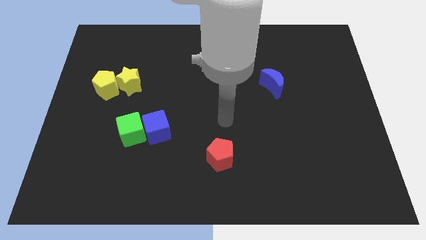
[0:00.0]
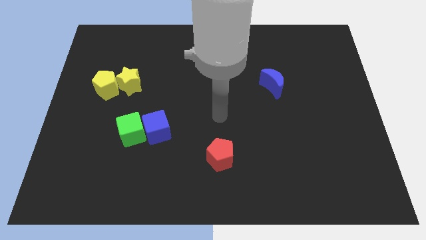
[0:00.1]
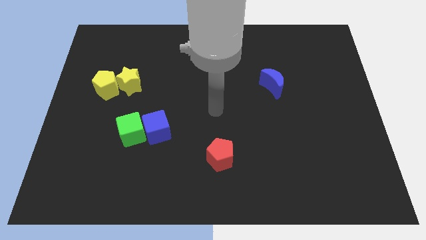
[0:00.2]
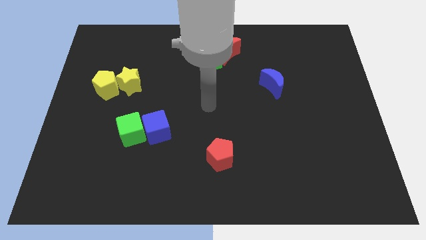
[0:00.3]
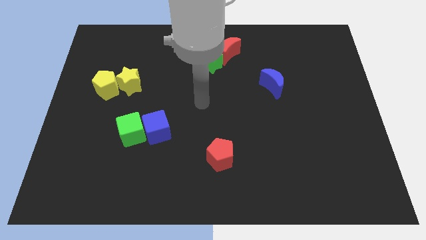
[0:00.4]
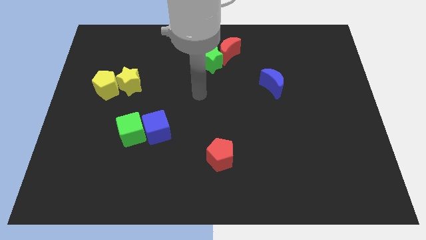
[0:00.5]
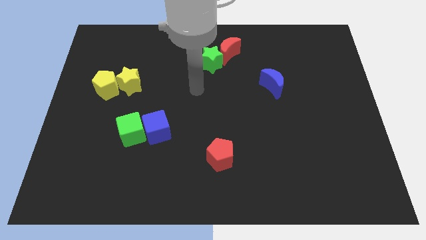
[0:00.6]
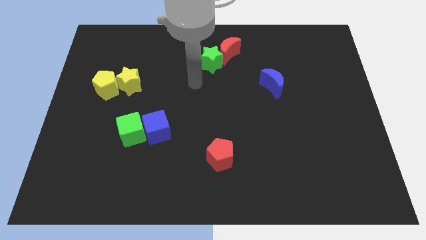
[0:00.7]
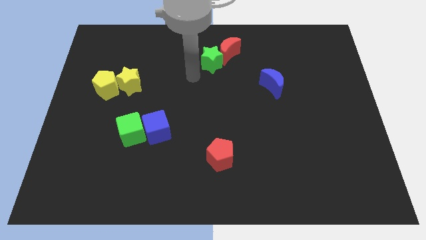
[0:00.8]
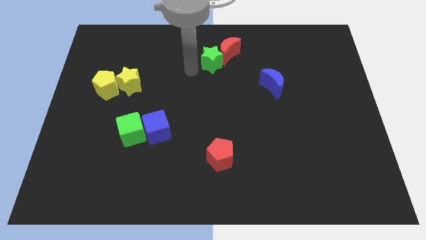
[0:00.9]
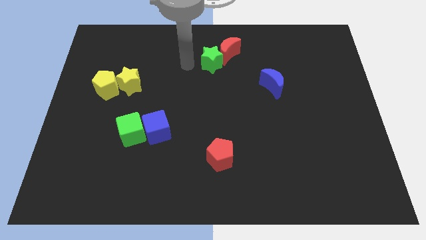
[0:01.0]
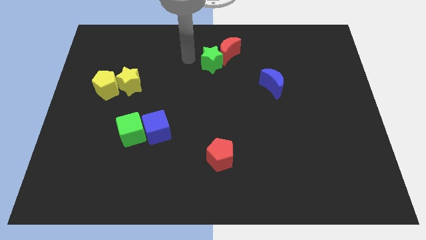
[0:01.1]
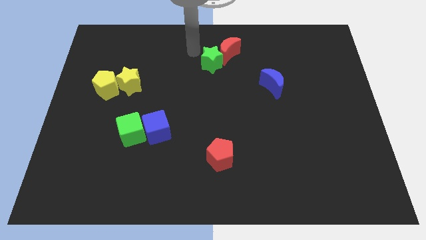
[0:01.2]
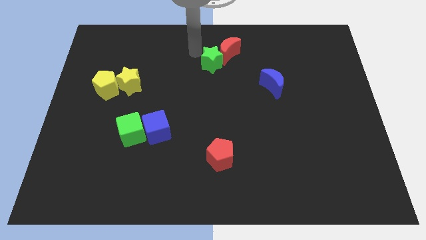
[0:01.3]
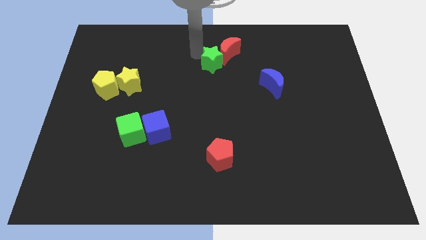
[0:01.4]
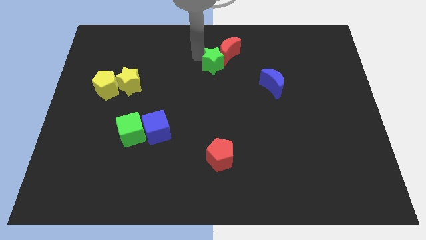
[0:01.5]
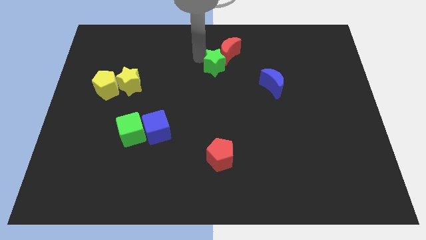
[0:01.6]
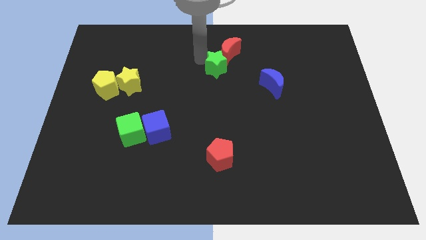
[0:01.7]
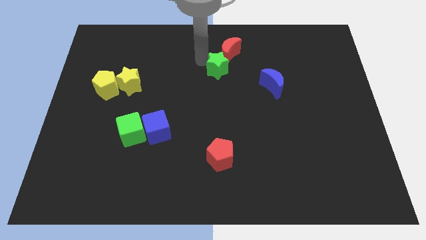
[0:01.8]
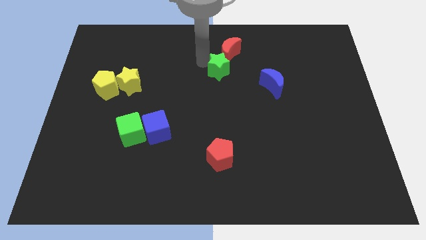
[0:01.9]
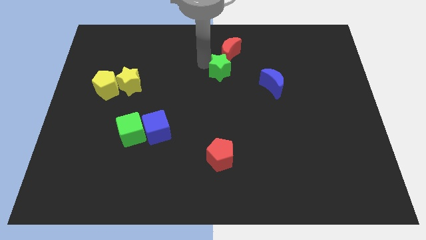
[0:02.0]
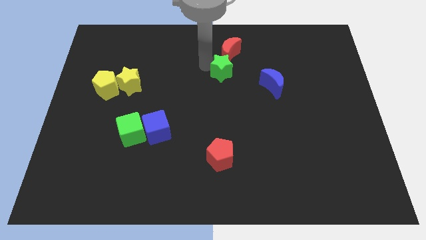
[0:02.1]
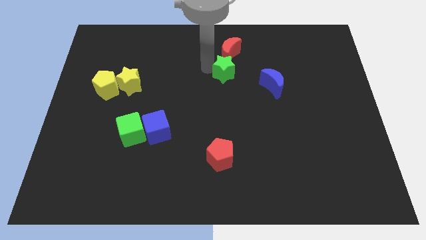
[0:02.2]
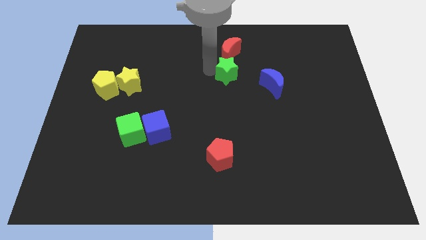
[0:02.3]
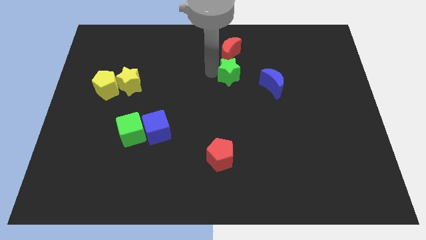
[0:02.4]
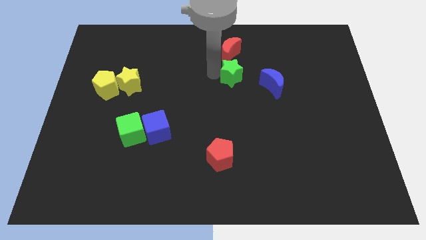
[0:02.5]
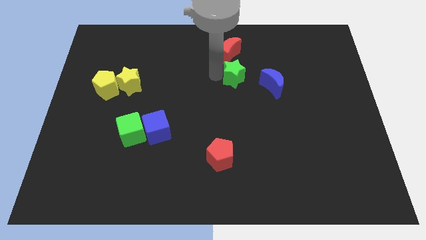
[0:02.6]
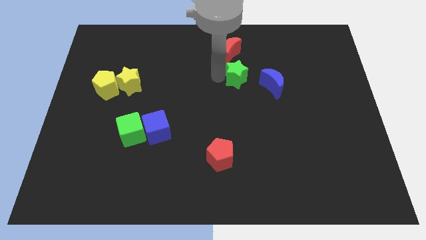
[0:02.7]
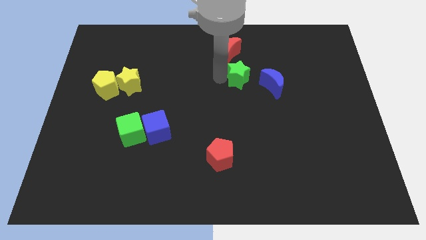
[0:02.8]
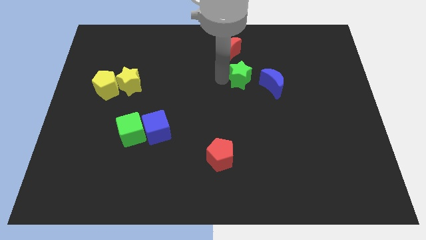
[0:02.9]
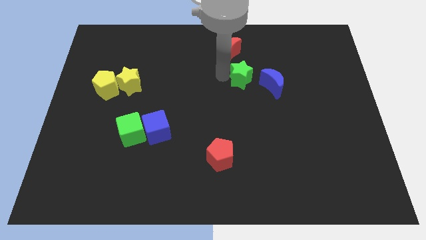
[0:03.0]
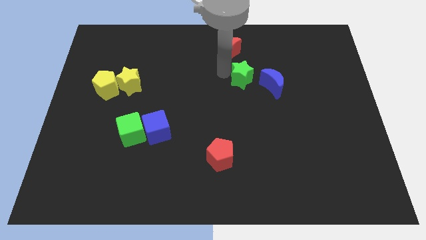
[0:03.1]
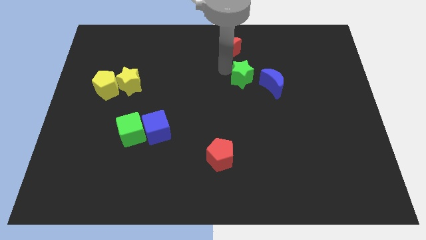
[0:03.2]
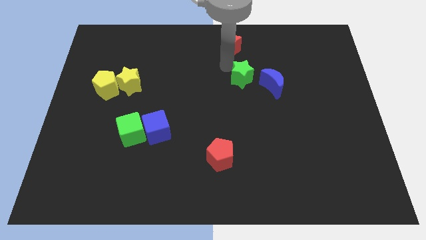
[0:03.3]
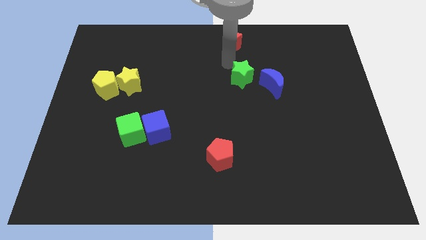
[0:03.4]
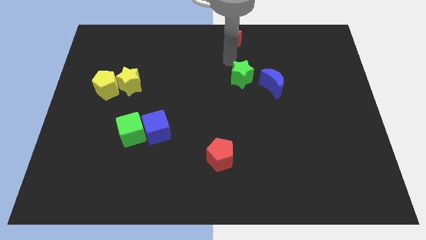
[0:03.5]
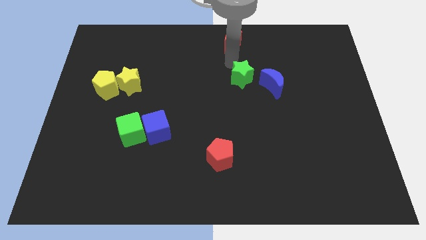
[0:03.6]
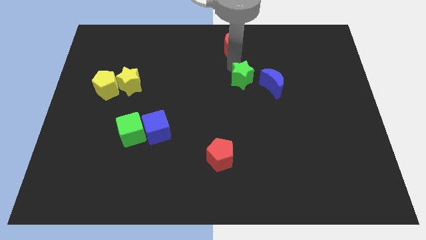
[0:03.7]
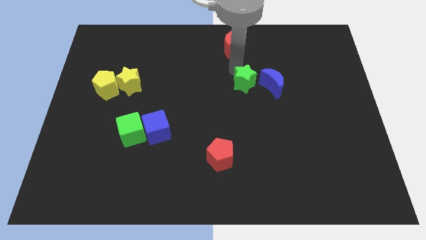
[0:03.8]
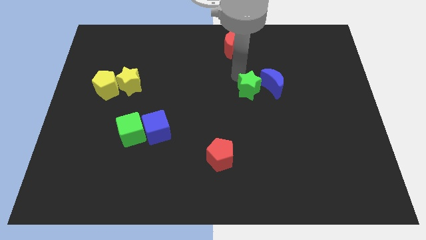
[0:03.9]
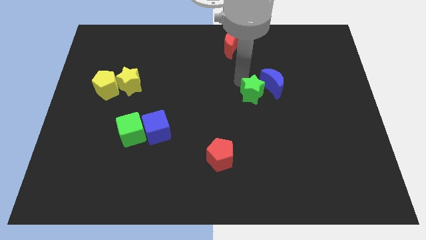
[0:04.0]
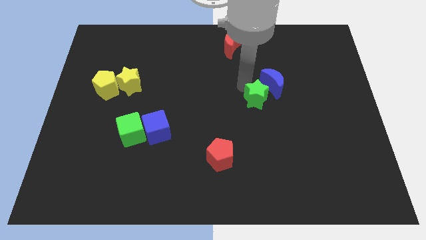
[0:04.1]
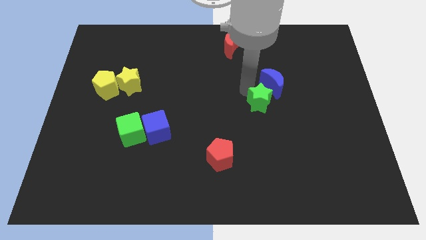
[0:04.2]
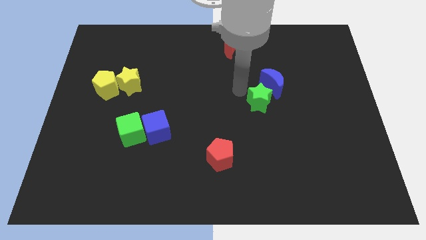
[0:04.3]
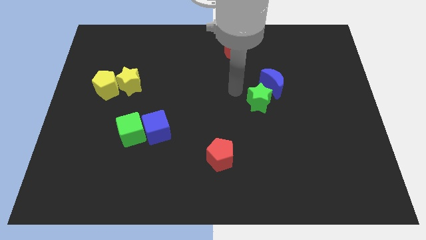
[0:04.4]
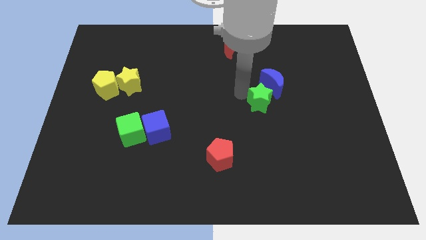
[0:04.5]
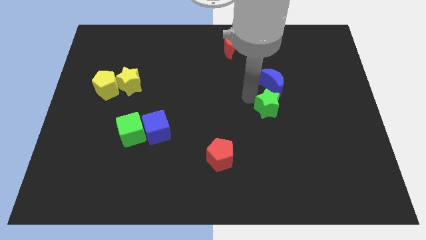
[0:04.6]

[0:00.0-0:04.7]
push the green star downwards and then to the right

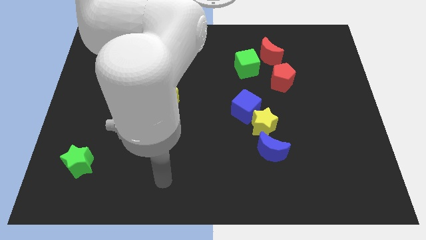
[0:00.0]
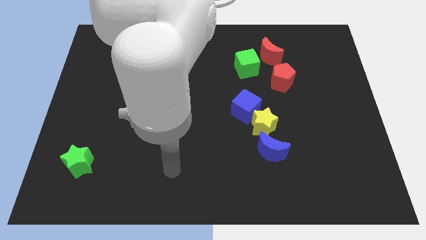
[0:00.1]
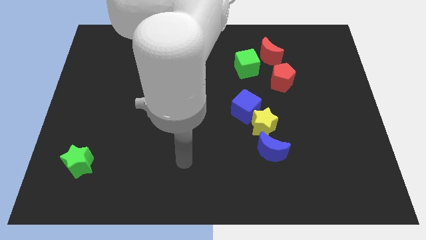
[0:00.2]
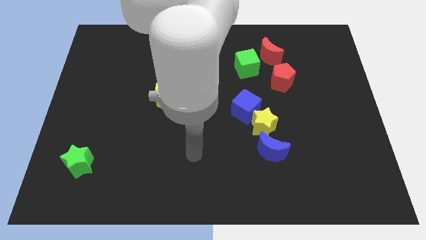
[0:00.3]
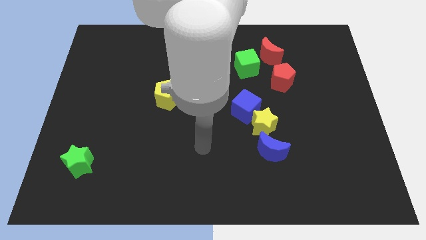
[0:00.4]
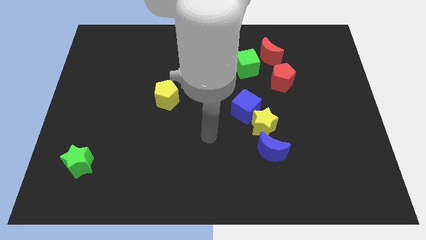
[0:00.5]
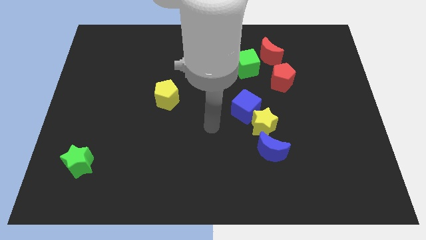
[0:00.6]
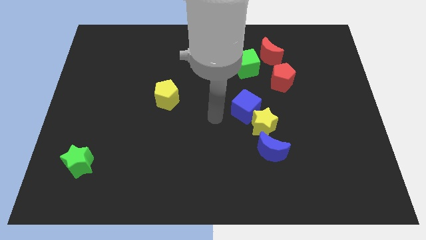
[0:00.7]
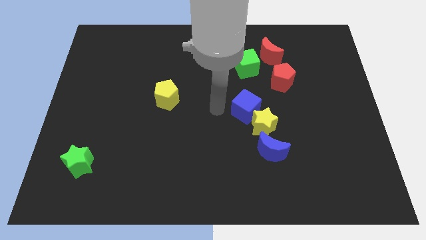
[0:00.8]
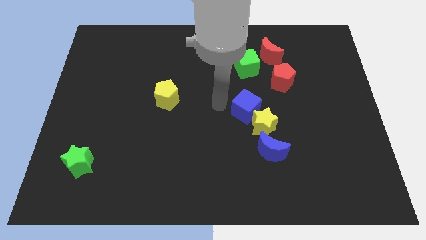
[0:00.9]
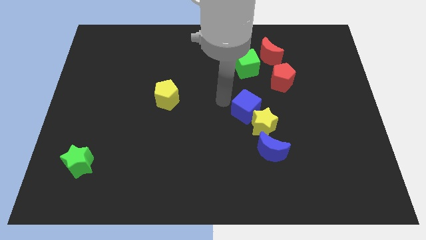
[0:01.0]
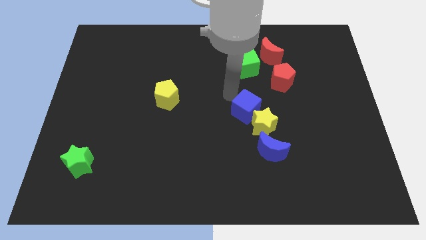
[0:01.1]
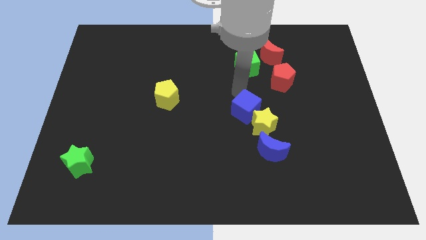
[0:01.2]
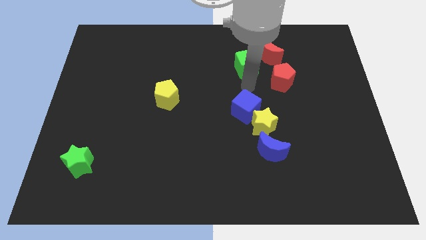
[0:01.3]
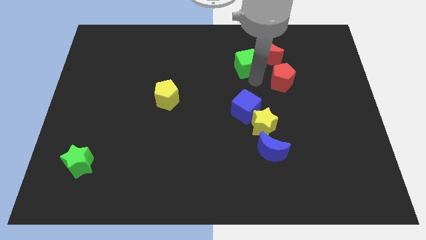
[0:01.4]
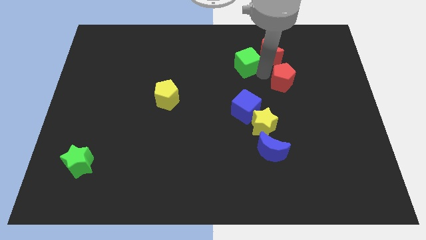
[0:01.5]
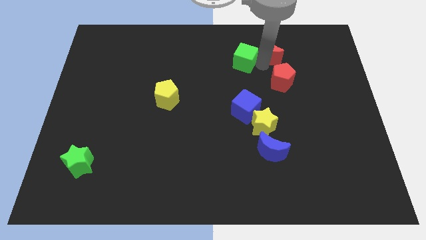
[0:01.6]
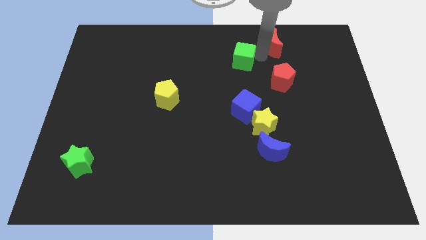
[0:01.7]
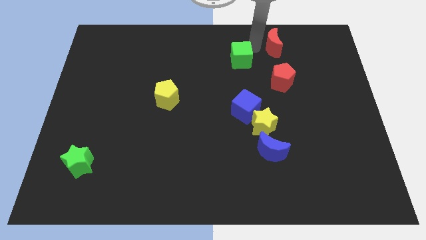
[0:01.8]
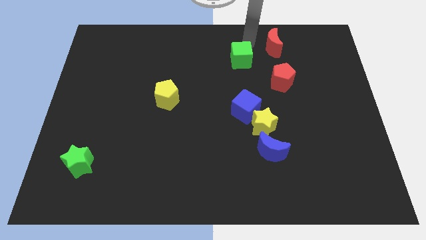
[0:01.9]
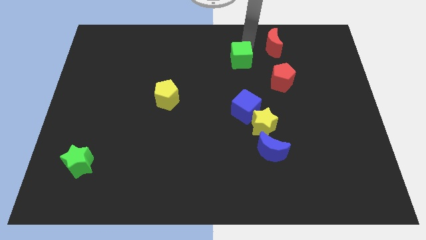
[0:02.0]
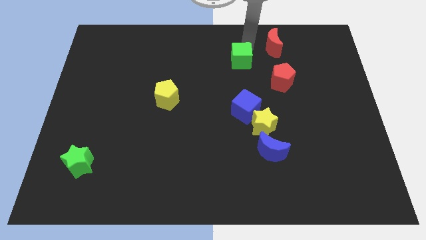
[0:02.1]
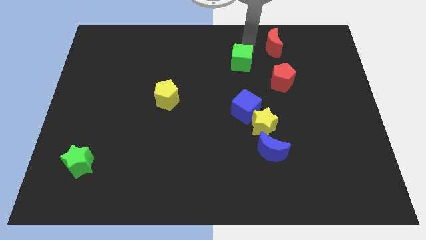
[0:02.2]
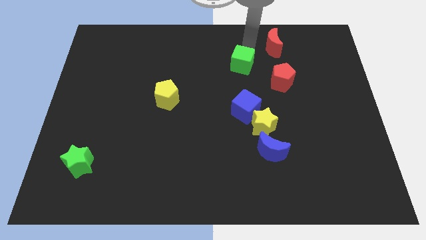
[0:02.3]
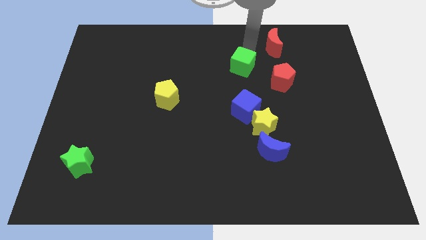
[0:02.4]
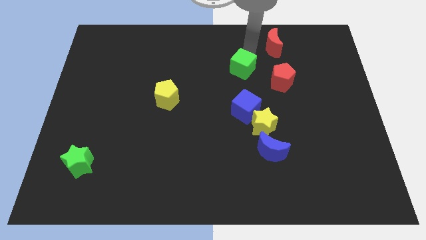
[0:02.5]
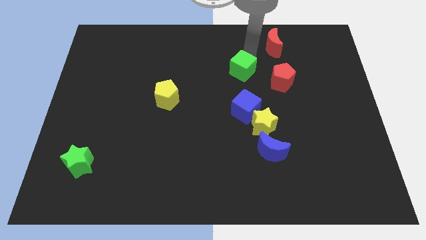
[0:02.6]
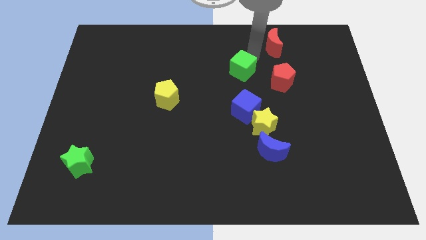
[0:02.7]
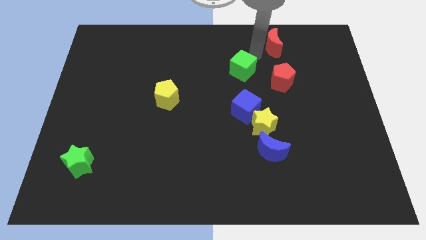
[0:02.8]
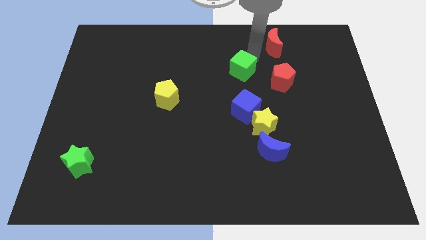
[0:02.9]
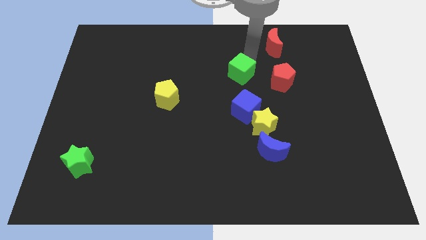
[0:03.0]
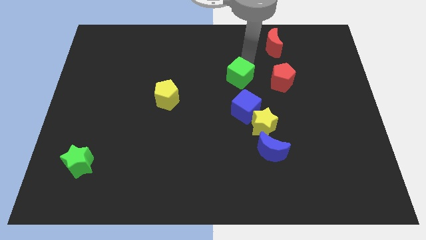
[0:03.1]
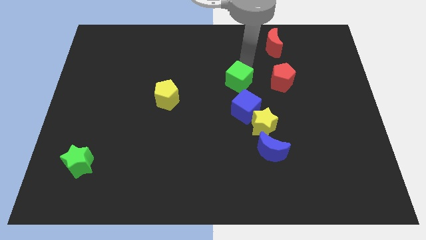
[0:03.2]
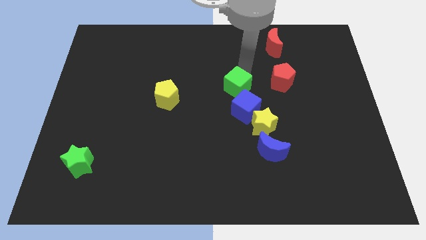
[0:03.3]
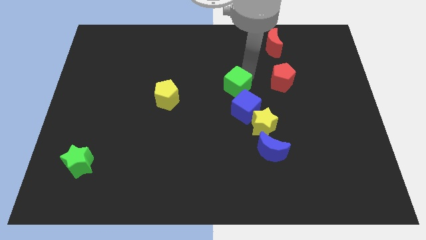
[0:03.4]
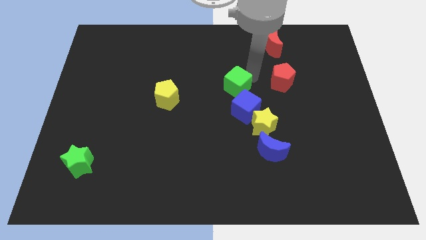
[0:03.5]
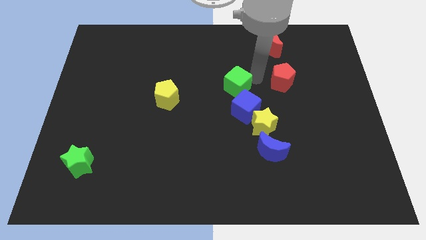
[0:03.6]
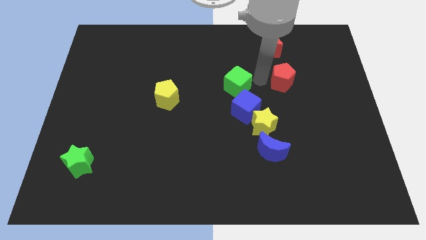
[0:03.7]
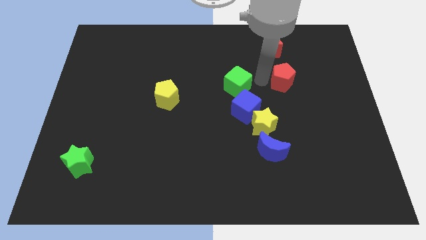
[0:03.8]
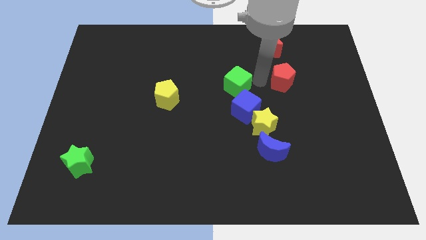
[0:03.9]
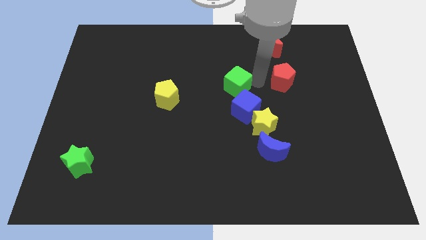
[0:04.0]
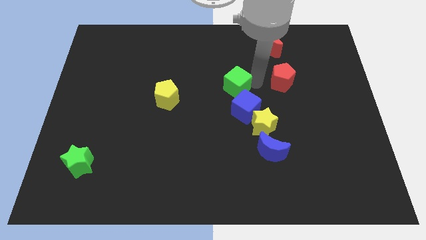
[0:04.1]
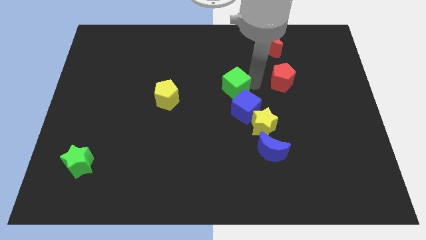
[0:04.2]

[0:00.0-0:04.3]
slightly slide the green cube diagonally down and to the left
